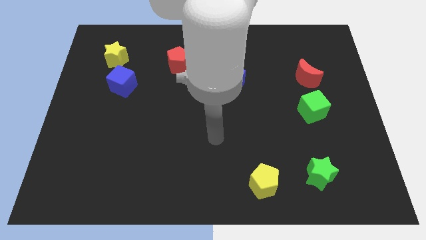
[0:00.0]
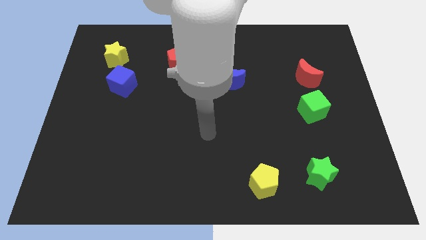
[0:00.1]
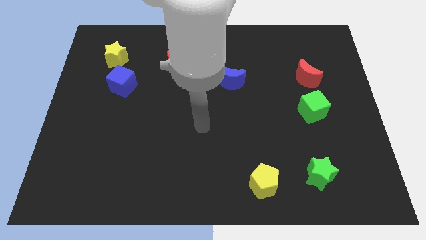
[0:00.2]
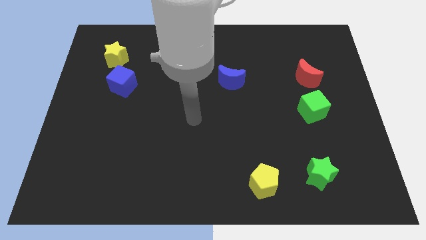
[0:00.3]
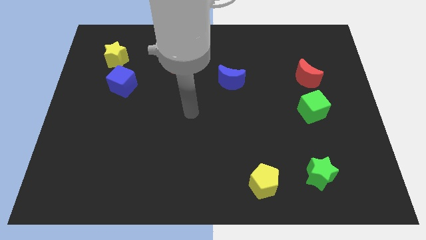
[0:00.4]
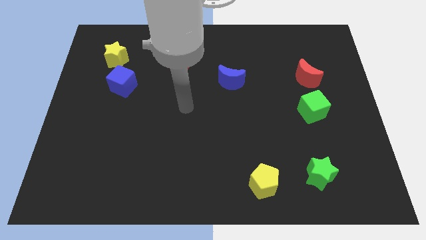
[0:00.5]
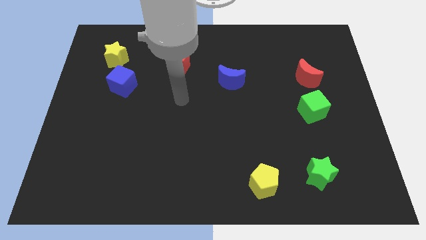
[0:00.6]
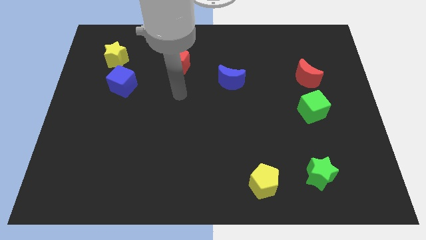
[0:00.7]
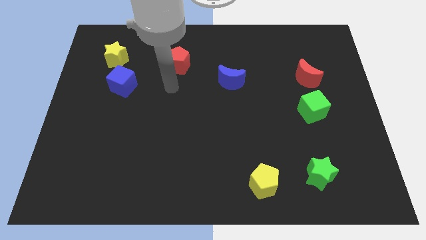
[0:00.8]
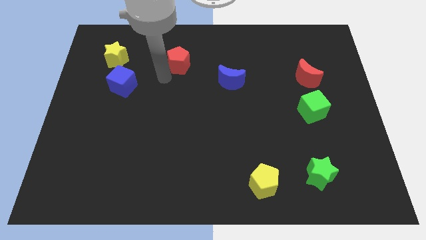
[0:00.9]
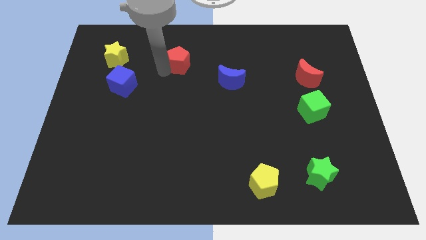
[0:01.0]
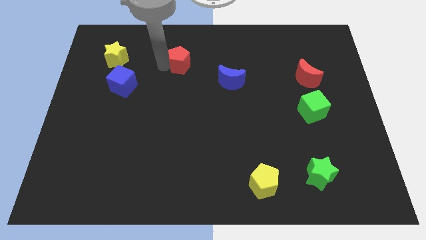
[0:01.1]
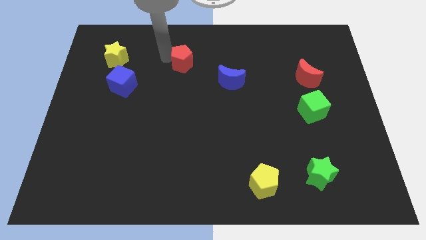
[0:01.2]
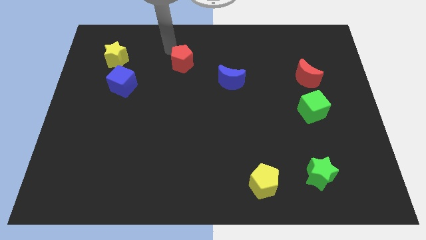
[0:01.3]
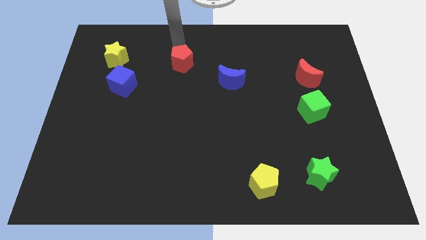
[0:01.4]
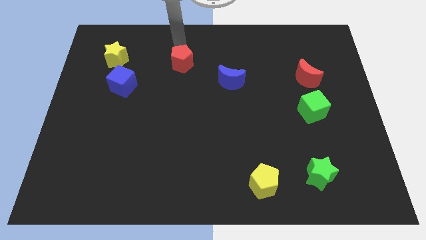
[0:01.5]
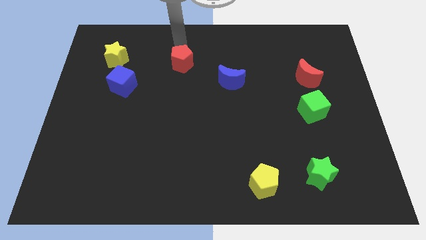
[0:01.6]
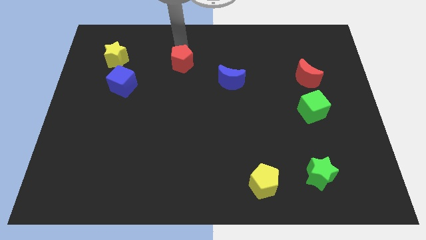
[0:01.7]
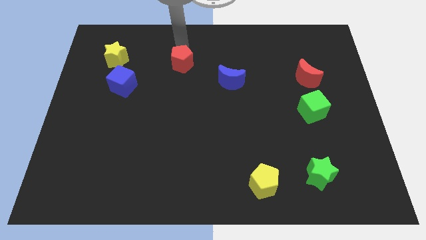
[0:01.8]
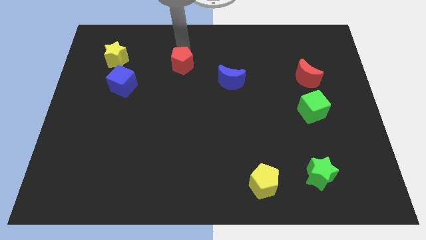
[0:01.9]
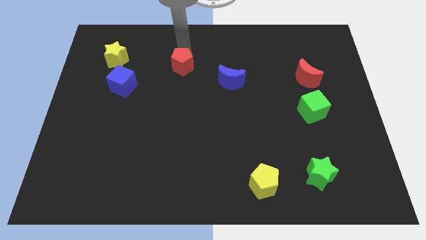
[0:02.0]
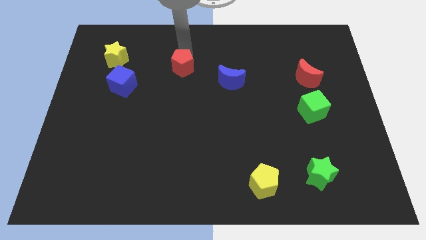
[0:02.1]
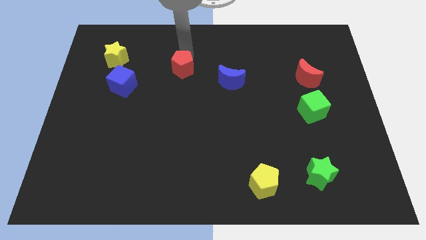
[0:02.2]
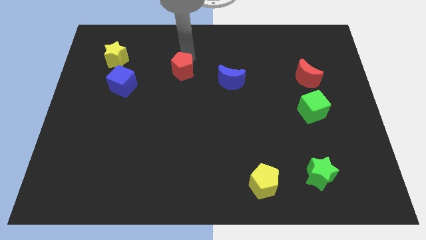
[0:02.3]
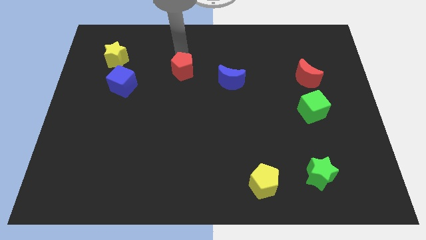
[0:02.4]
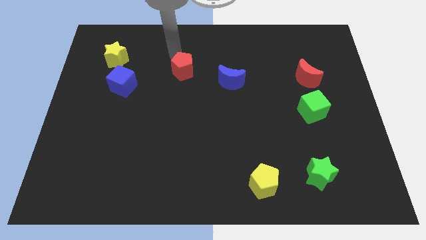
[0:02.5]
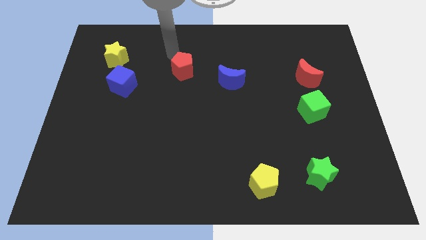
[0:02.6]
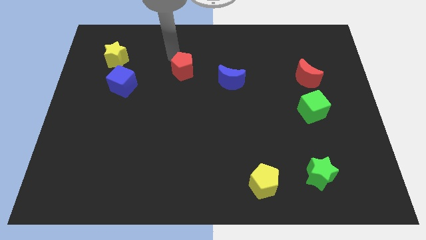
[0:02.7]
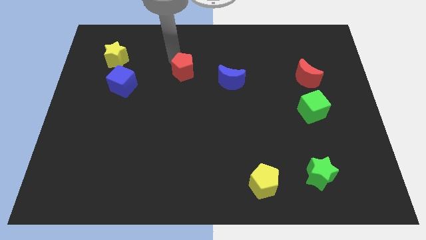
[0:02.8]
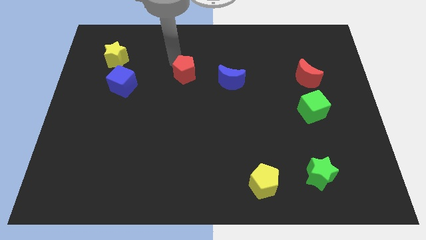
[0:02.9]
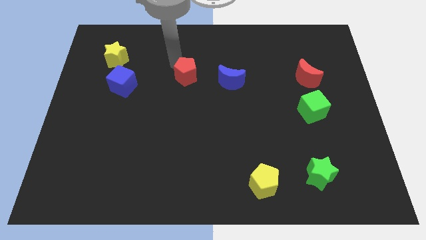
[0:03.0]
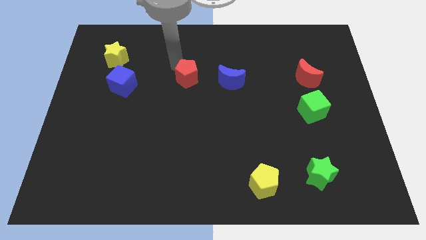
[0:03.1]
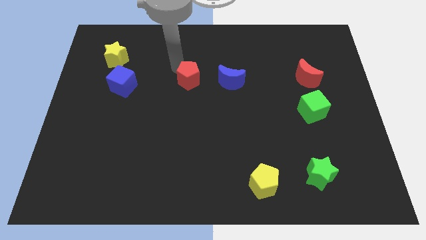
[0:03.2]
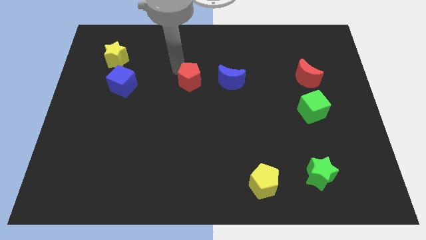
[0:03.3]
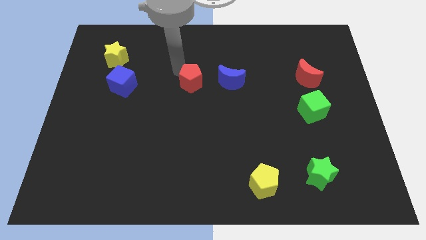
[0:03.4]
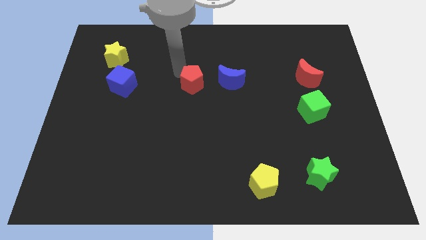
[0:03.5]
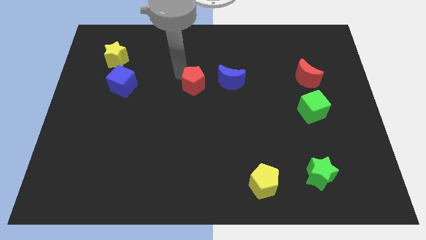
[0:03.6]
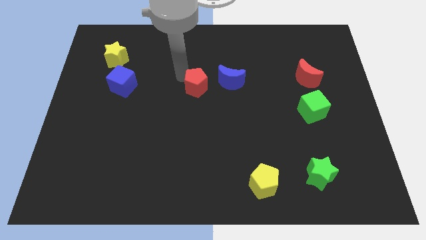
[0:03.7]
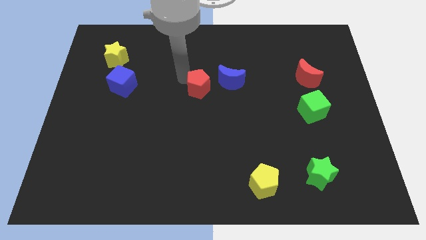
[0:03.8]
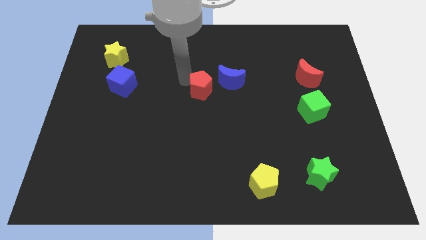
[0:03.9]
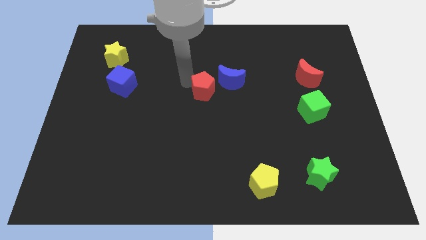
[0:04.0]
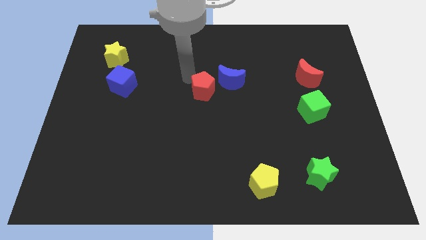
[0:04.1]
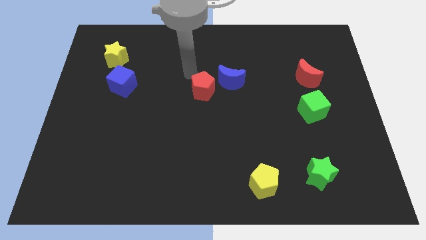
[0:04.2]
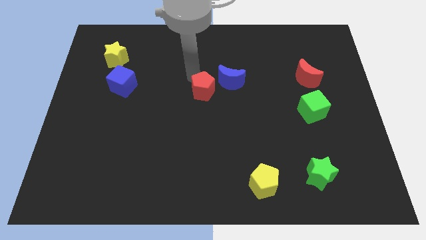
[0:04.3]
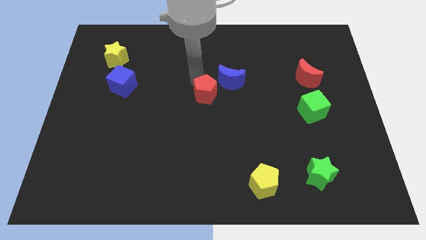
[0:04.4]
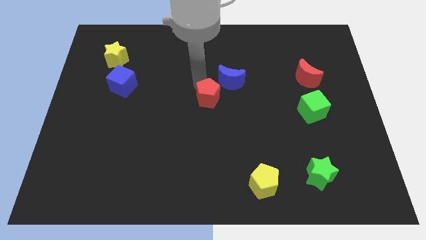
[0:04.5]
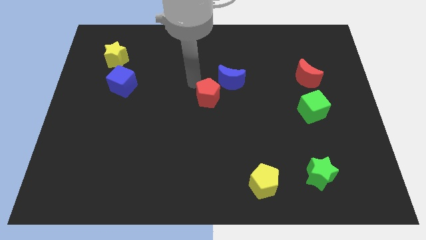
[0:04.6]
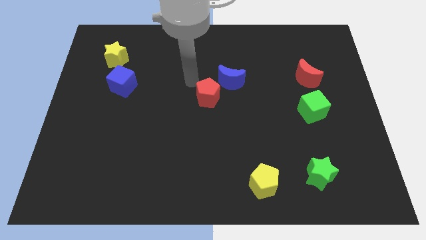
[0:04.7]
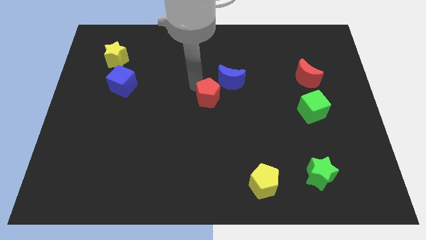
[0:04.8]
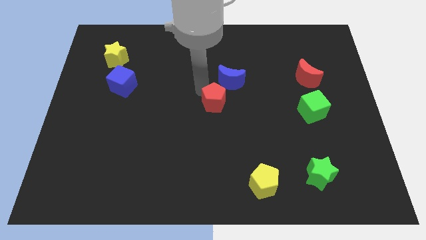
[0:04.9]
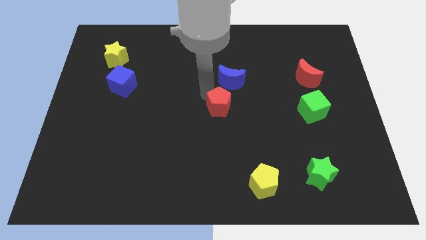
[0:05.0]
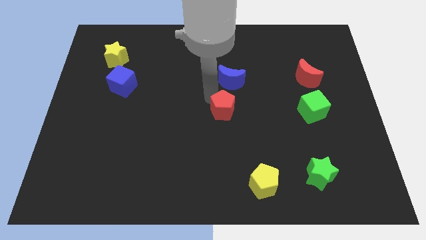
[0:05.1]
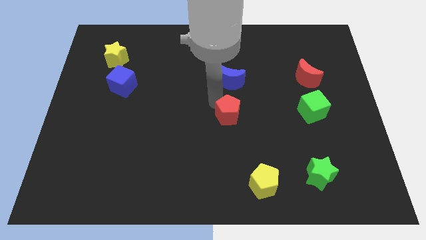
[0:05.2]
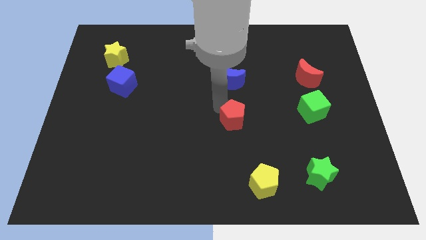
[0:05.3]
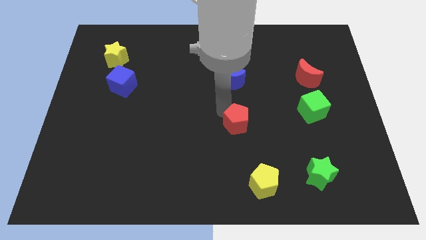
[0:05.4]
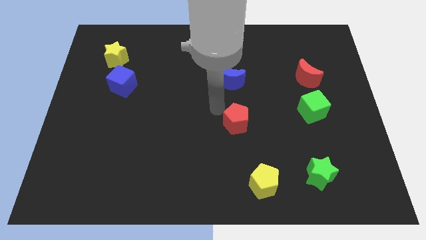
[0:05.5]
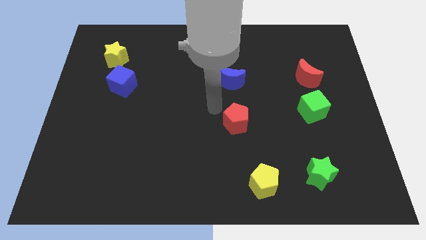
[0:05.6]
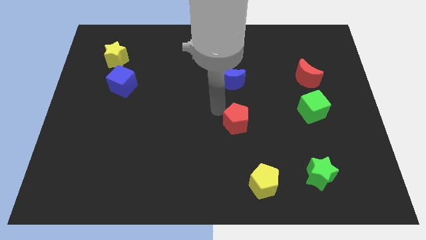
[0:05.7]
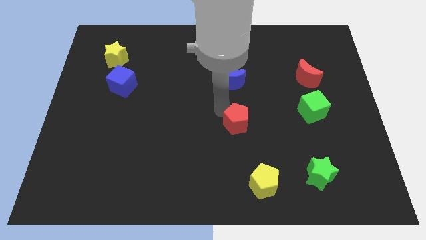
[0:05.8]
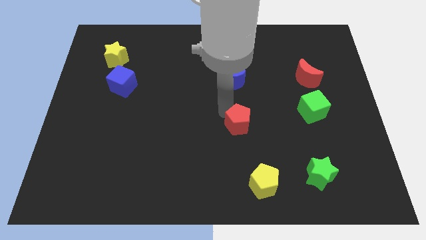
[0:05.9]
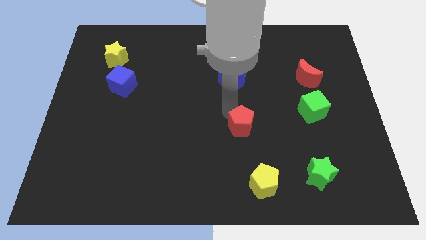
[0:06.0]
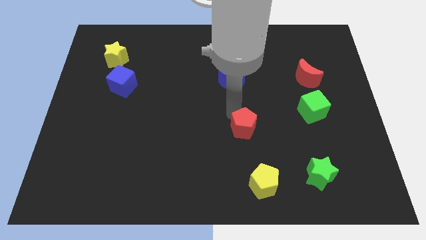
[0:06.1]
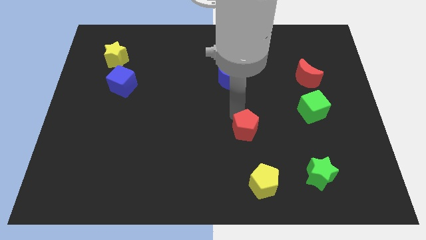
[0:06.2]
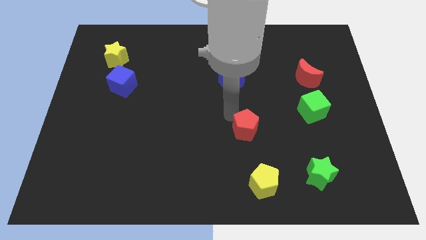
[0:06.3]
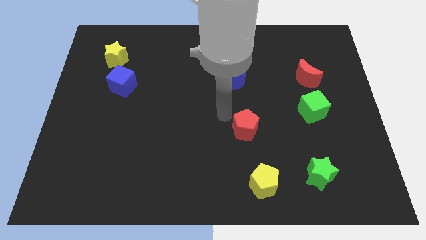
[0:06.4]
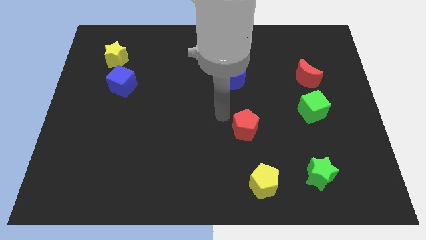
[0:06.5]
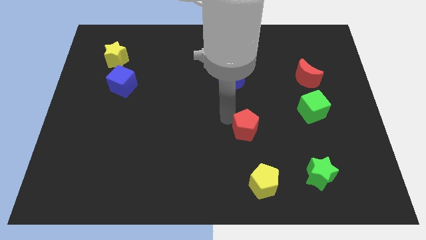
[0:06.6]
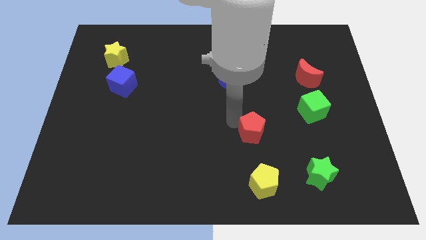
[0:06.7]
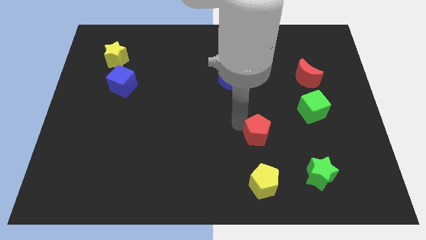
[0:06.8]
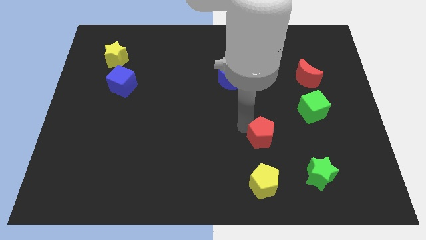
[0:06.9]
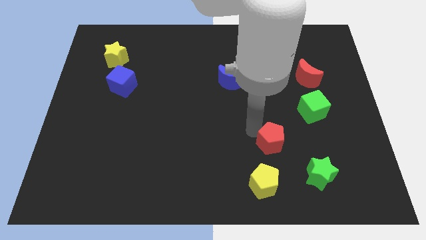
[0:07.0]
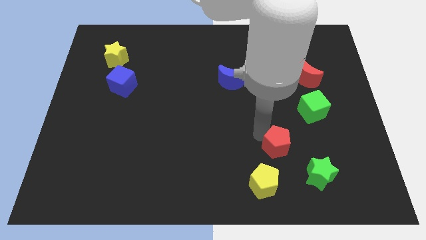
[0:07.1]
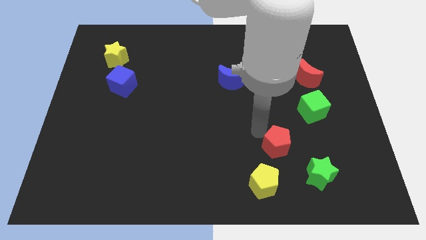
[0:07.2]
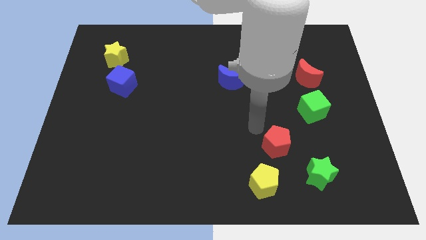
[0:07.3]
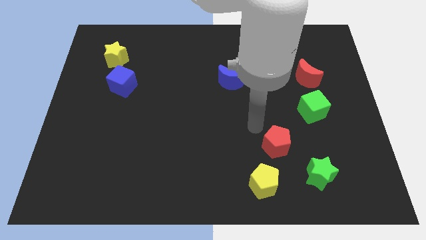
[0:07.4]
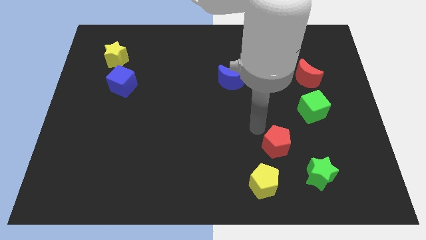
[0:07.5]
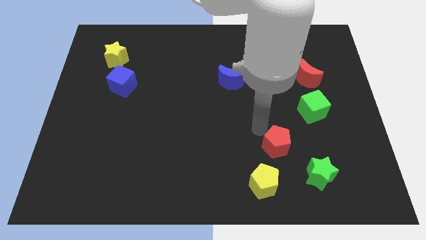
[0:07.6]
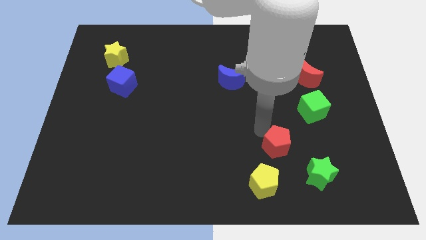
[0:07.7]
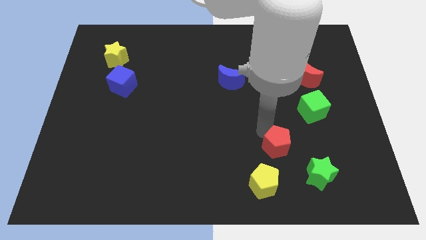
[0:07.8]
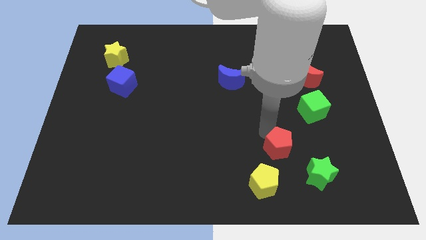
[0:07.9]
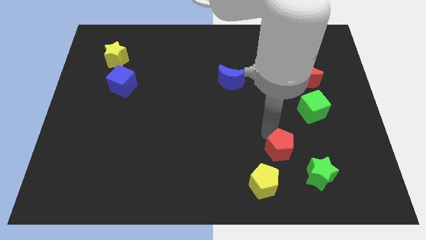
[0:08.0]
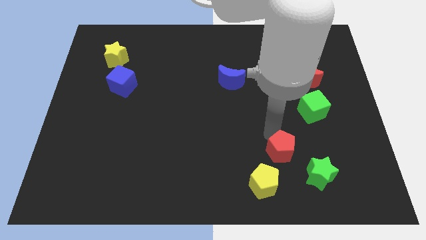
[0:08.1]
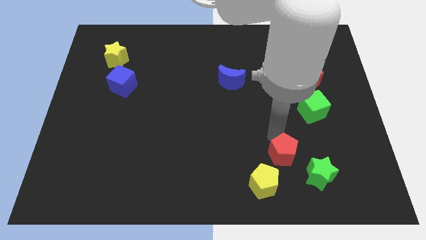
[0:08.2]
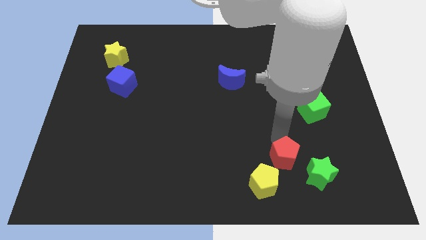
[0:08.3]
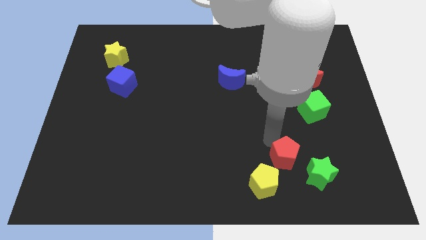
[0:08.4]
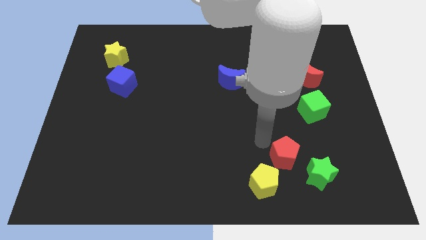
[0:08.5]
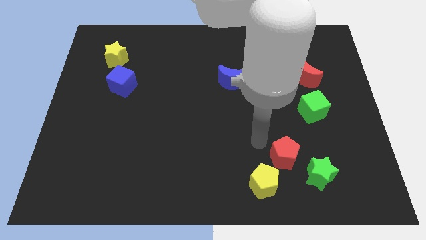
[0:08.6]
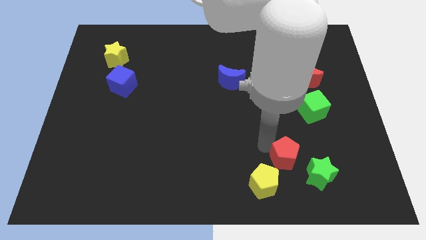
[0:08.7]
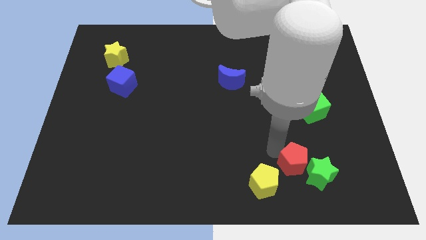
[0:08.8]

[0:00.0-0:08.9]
move the red pentagon towards the green star
